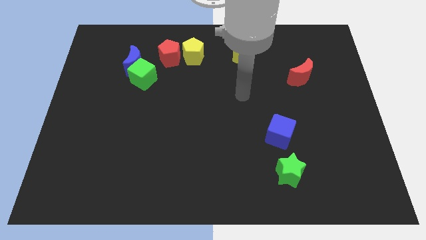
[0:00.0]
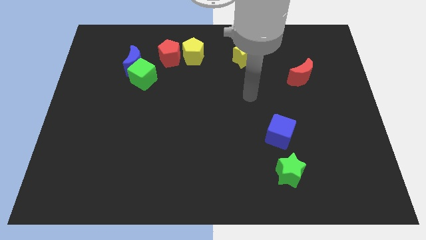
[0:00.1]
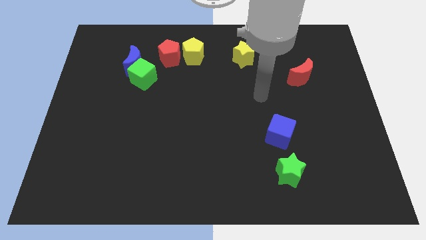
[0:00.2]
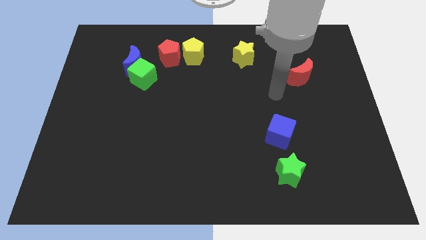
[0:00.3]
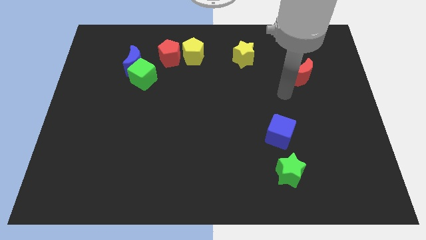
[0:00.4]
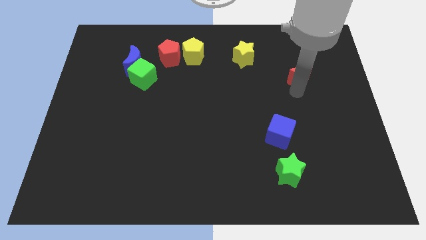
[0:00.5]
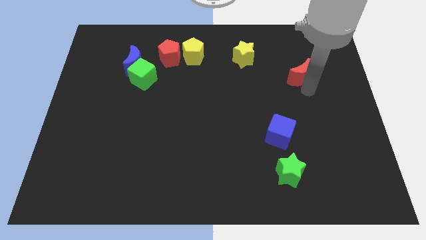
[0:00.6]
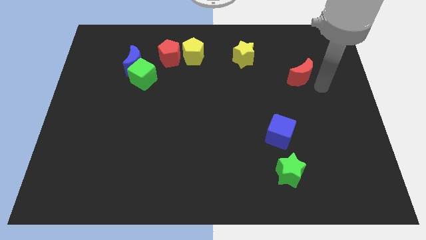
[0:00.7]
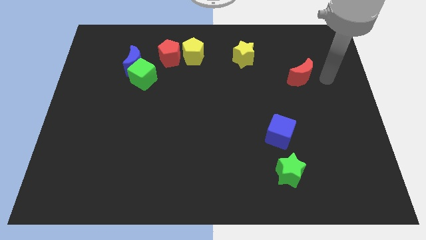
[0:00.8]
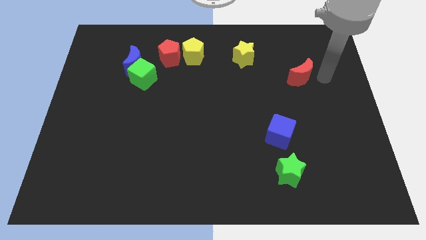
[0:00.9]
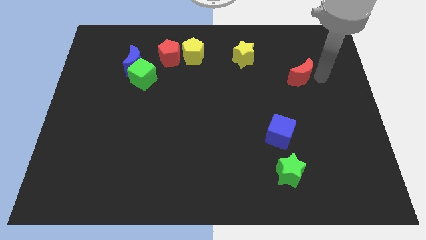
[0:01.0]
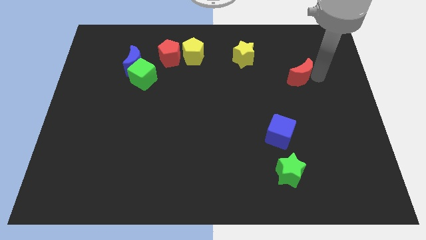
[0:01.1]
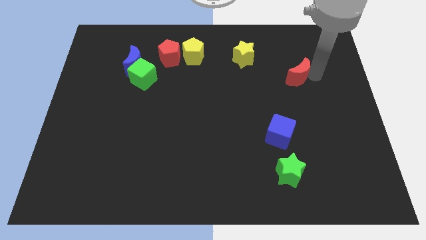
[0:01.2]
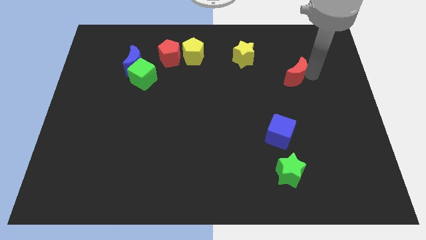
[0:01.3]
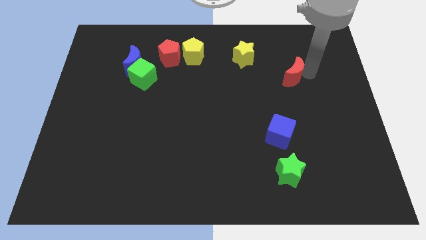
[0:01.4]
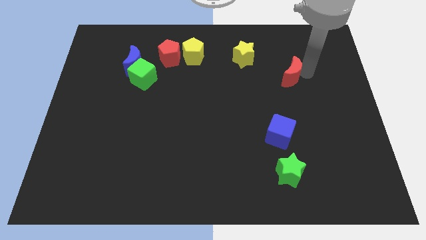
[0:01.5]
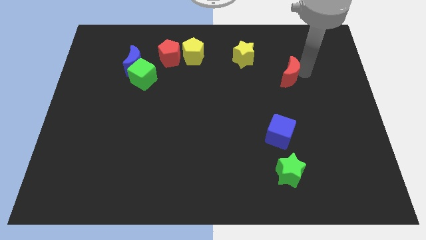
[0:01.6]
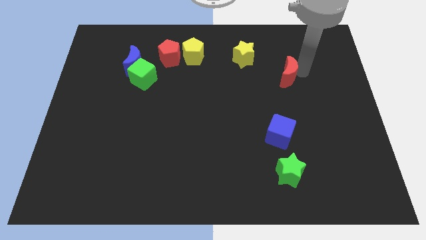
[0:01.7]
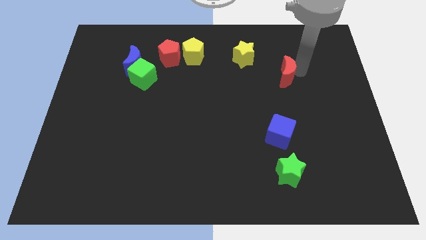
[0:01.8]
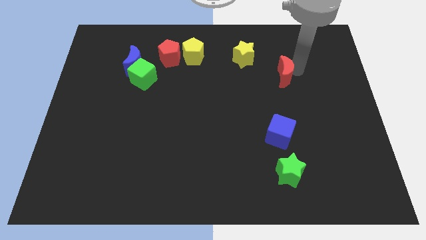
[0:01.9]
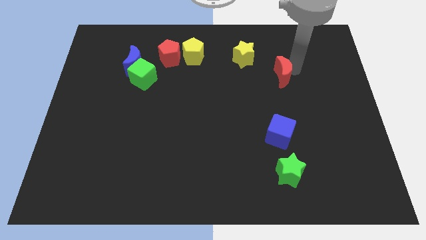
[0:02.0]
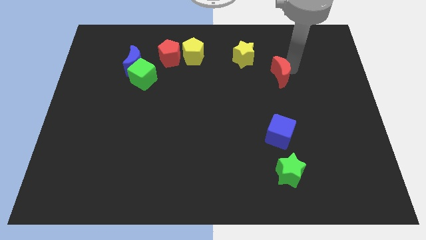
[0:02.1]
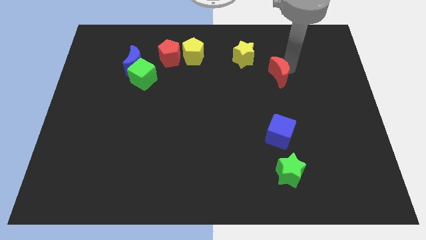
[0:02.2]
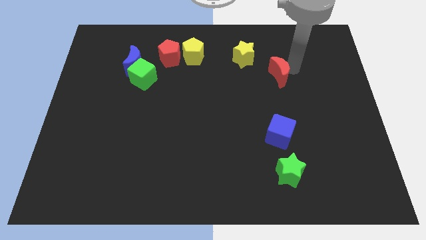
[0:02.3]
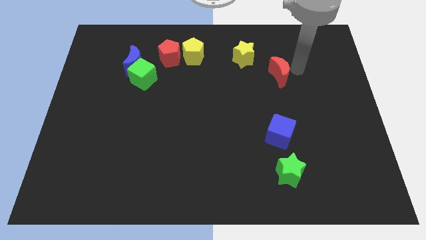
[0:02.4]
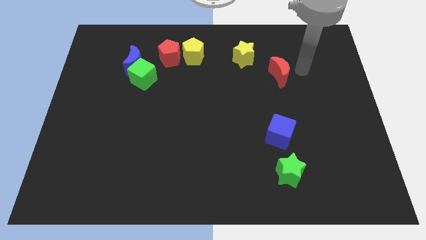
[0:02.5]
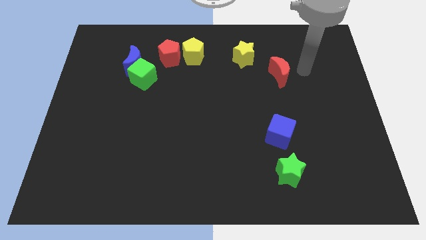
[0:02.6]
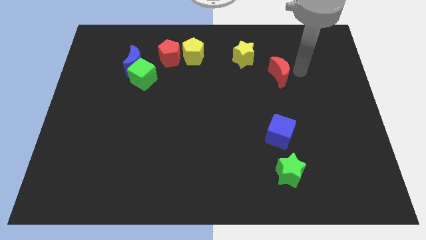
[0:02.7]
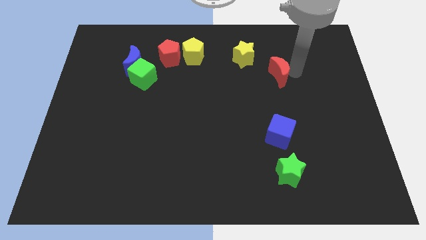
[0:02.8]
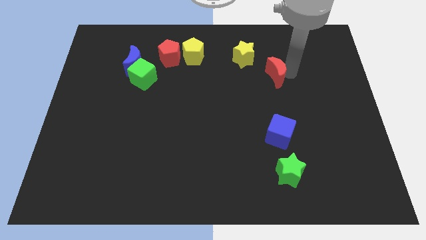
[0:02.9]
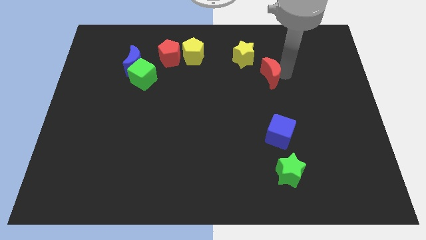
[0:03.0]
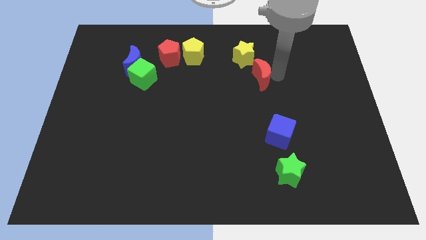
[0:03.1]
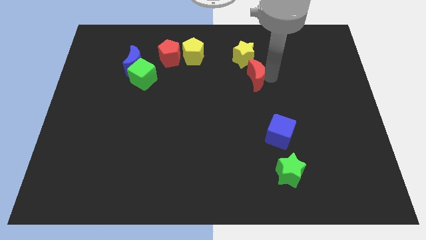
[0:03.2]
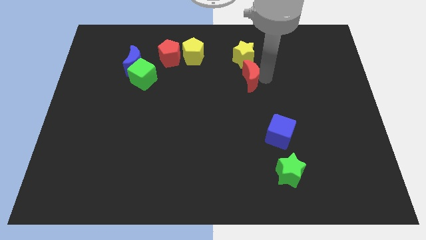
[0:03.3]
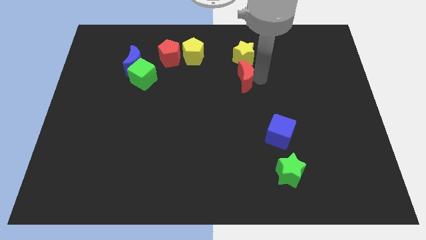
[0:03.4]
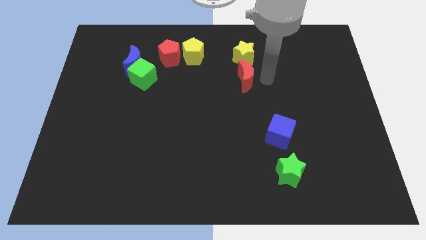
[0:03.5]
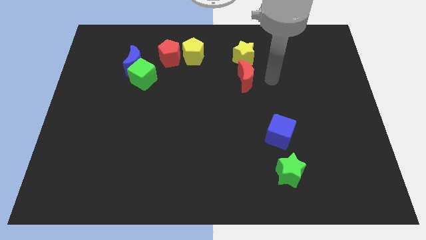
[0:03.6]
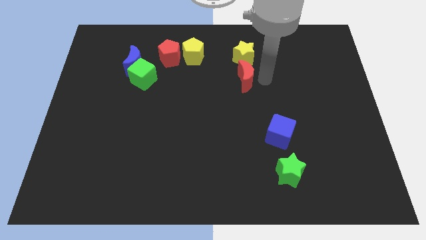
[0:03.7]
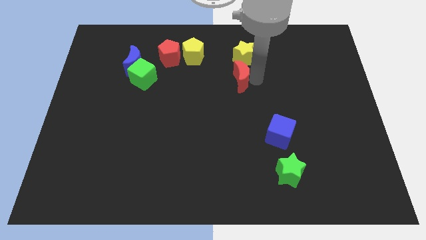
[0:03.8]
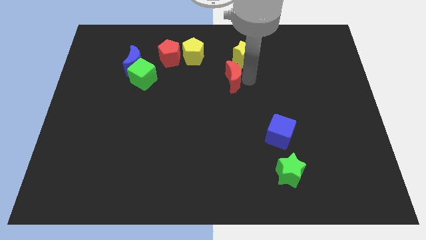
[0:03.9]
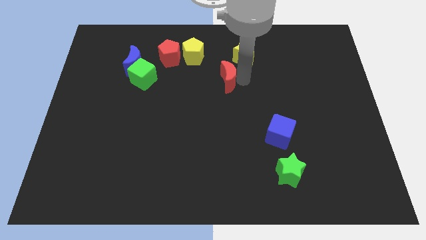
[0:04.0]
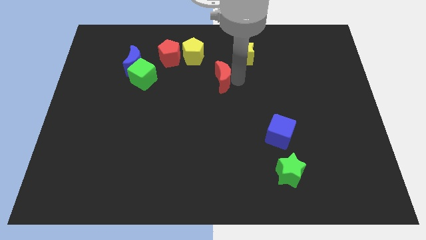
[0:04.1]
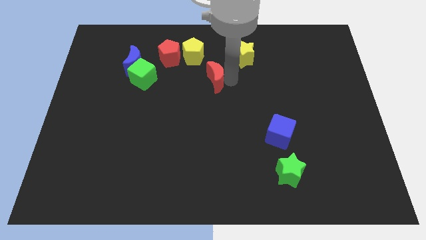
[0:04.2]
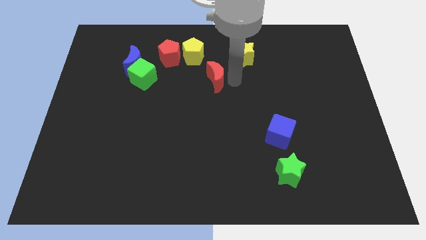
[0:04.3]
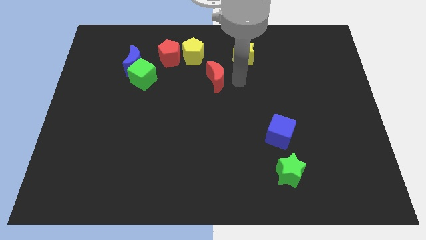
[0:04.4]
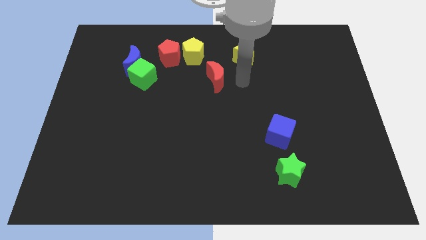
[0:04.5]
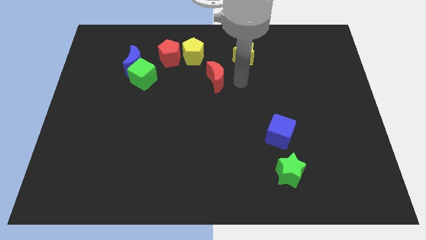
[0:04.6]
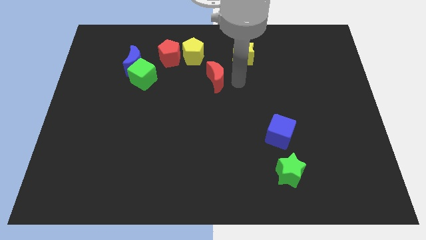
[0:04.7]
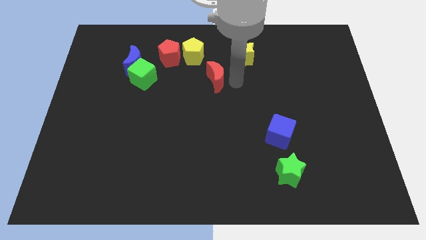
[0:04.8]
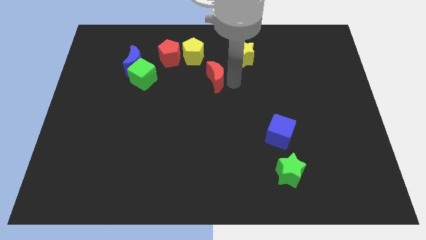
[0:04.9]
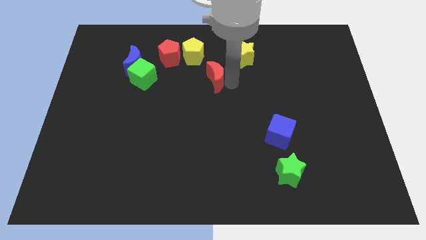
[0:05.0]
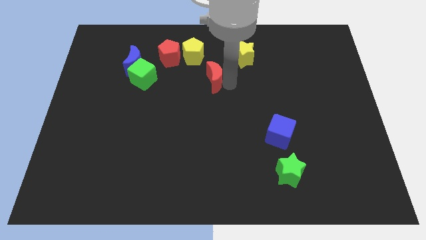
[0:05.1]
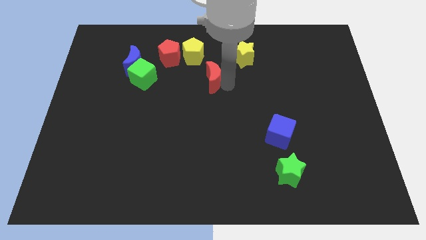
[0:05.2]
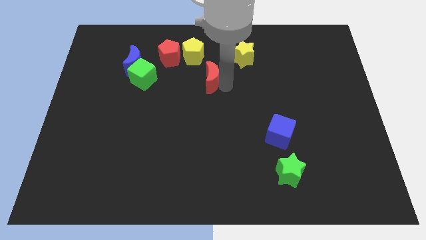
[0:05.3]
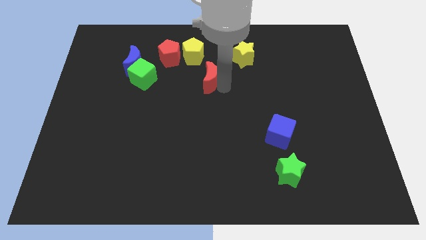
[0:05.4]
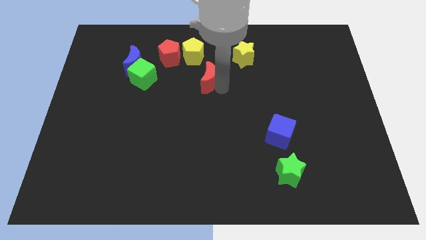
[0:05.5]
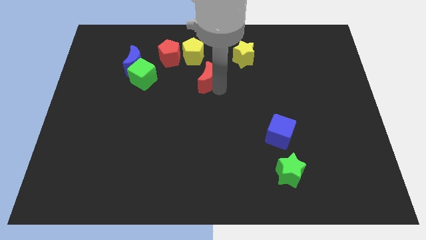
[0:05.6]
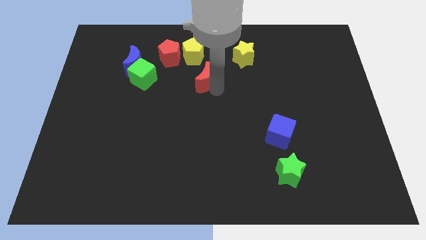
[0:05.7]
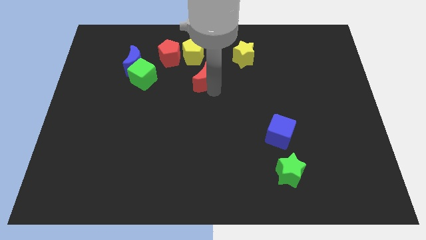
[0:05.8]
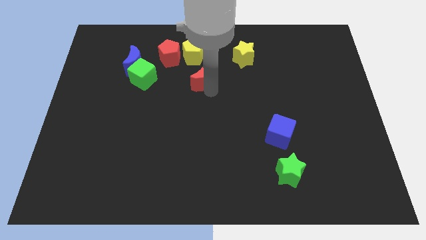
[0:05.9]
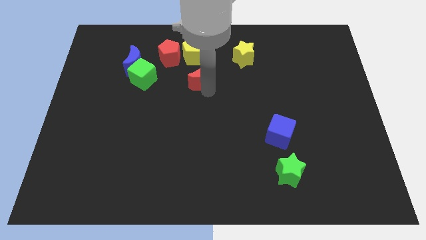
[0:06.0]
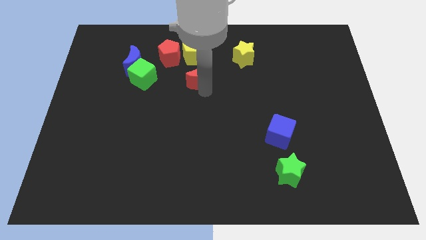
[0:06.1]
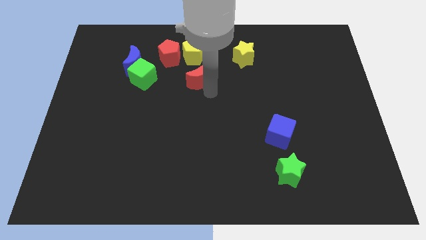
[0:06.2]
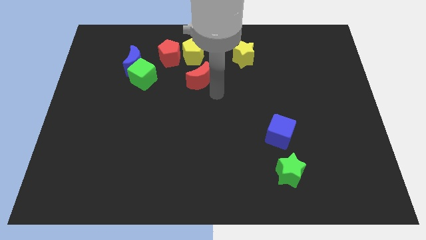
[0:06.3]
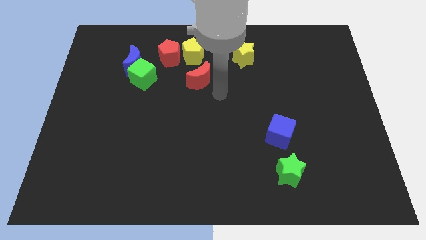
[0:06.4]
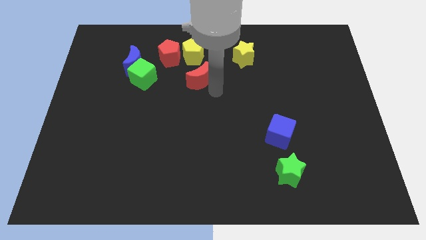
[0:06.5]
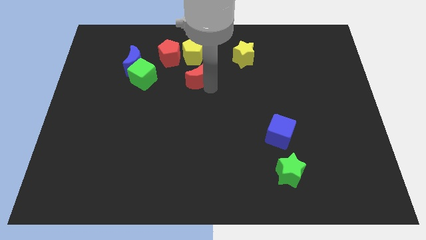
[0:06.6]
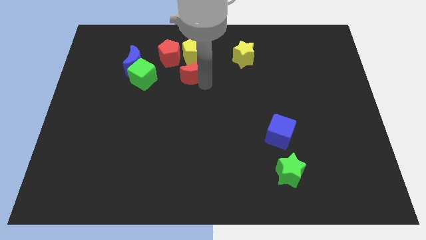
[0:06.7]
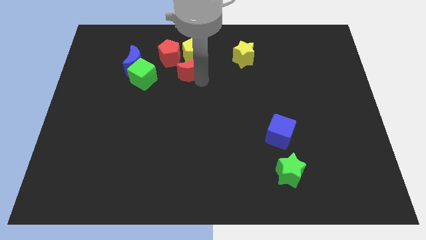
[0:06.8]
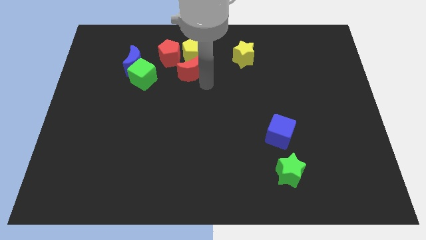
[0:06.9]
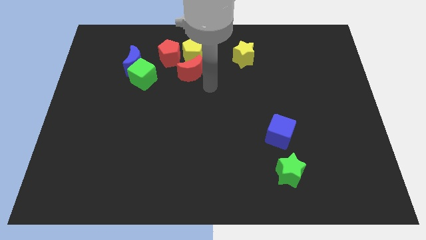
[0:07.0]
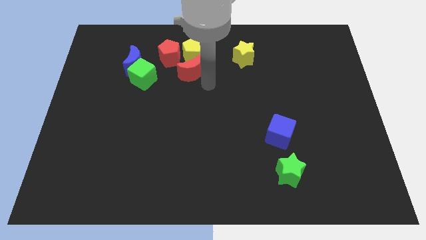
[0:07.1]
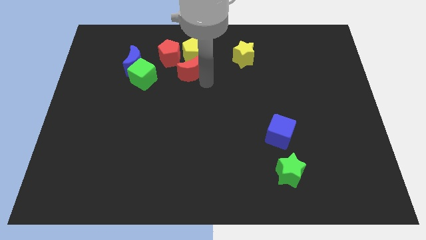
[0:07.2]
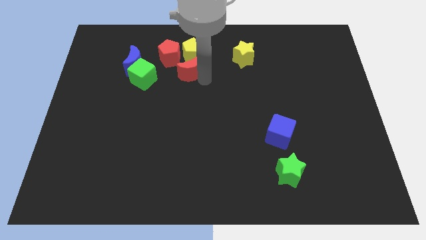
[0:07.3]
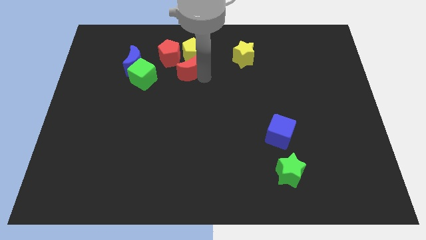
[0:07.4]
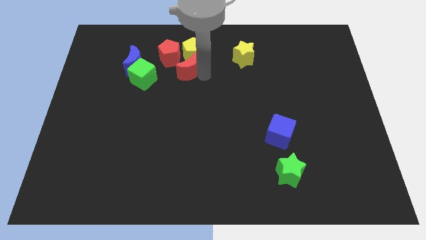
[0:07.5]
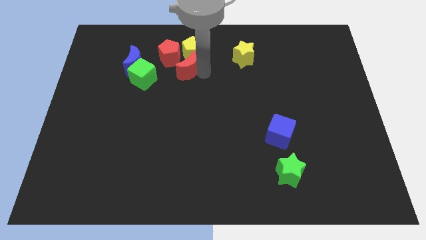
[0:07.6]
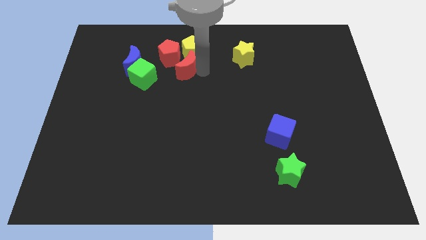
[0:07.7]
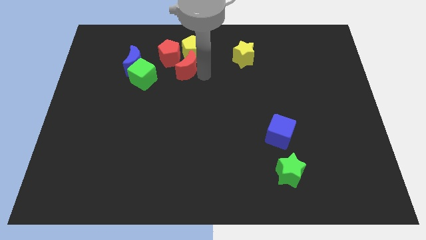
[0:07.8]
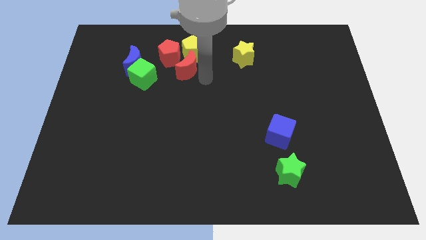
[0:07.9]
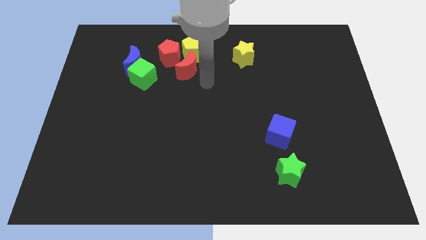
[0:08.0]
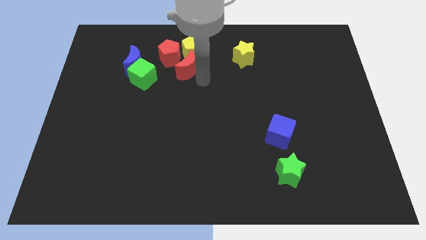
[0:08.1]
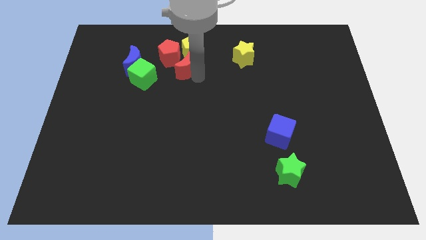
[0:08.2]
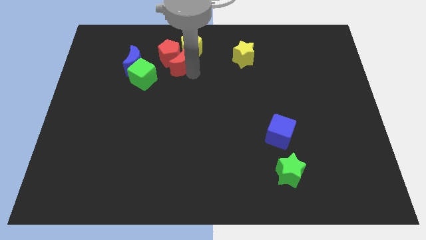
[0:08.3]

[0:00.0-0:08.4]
slide the red moon to the red pentagon
